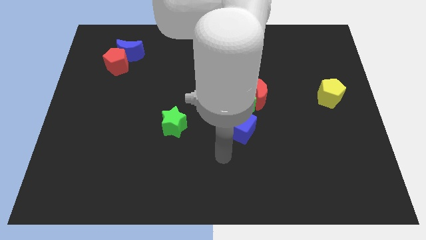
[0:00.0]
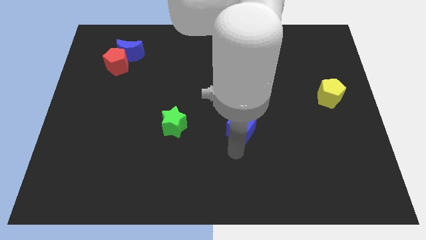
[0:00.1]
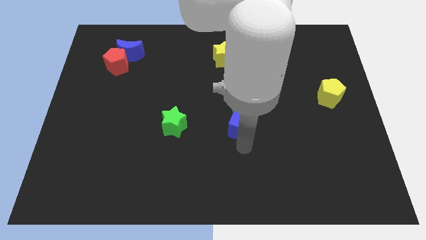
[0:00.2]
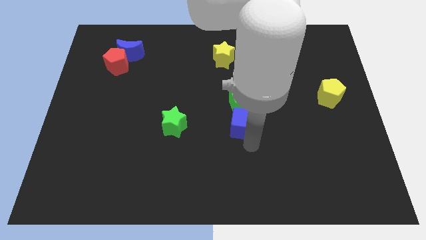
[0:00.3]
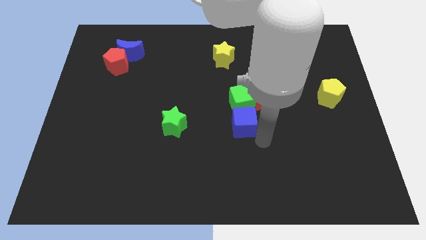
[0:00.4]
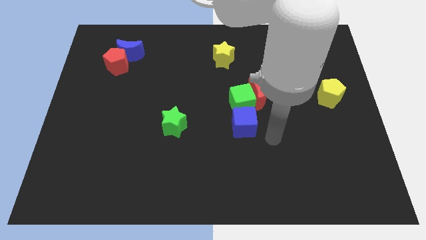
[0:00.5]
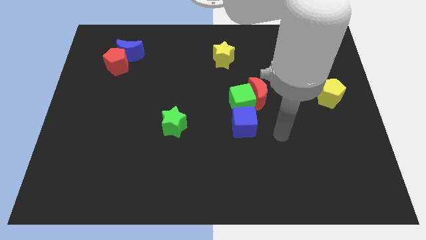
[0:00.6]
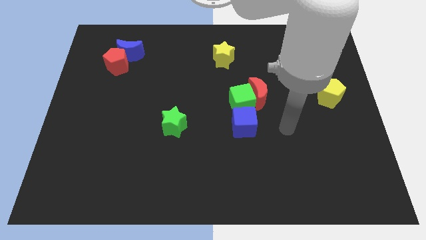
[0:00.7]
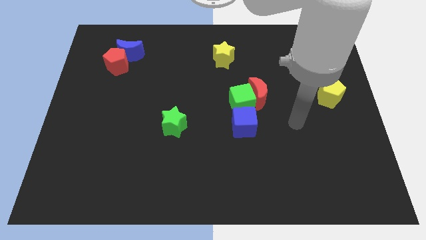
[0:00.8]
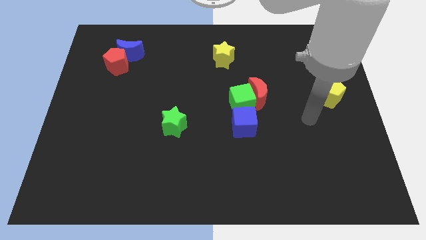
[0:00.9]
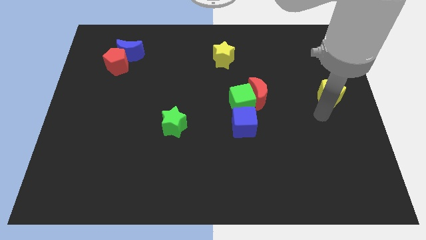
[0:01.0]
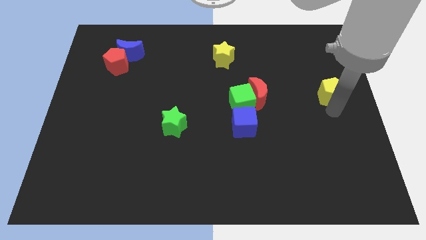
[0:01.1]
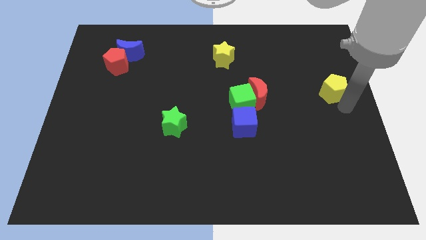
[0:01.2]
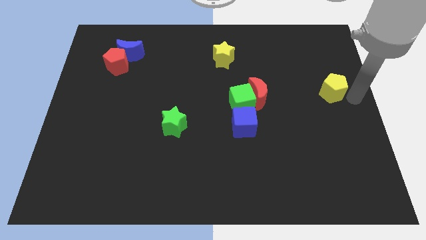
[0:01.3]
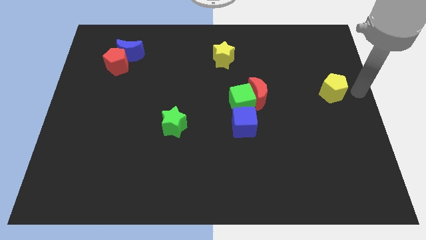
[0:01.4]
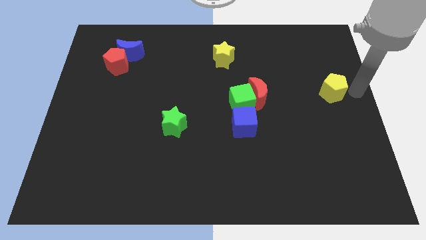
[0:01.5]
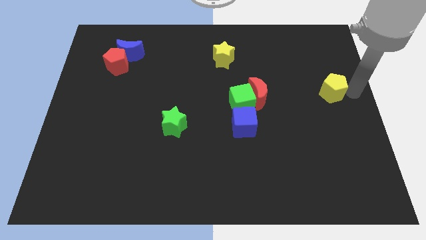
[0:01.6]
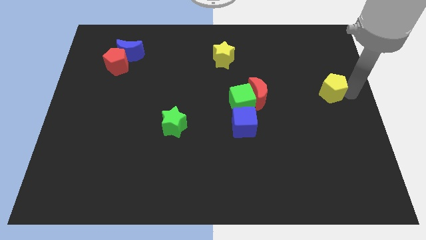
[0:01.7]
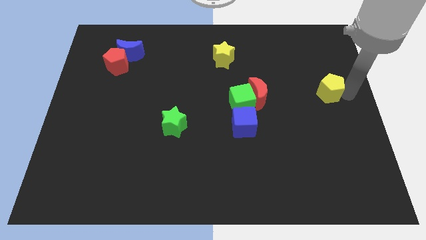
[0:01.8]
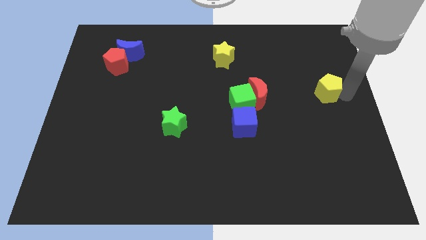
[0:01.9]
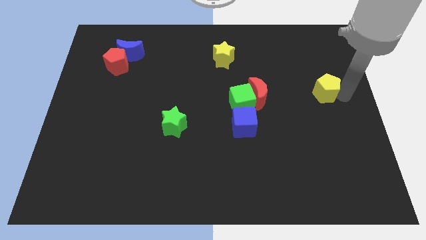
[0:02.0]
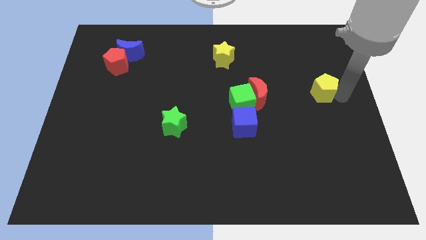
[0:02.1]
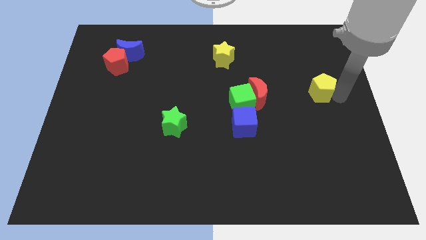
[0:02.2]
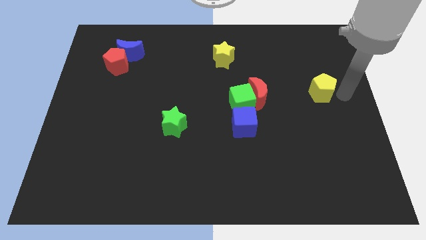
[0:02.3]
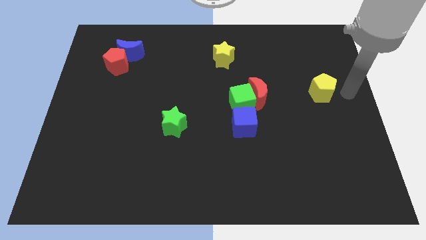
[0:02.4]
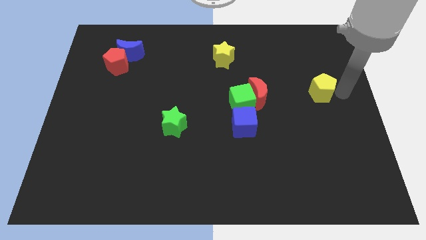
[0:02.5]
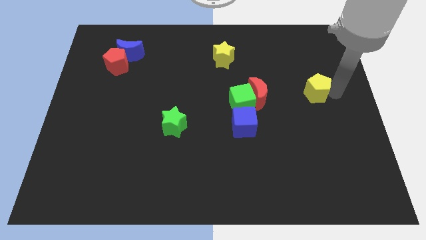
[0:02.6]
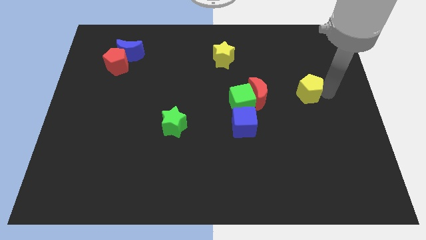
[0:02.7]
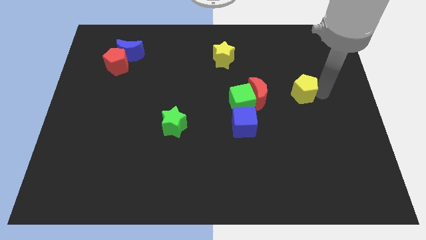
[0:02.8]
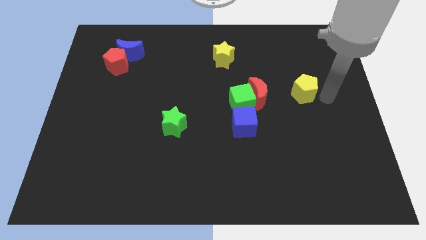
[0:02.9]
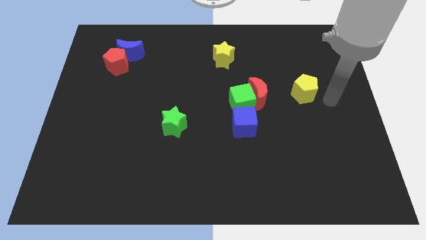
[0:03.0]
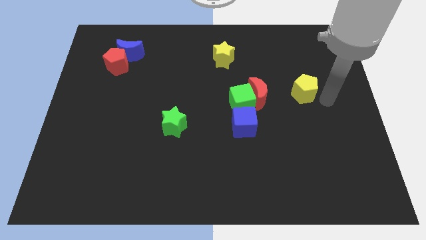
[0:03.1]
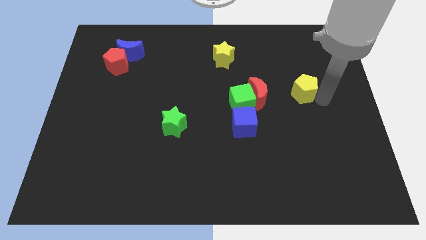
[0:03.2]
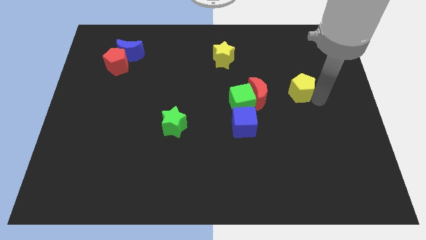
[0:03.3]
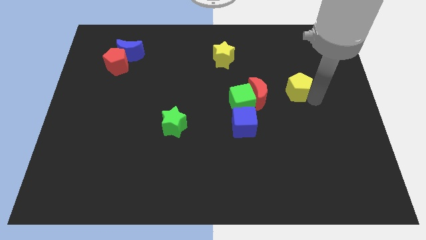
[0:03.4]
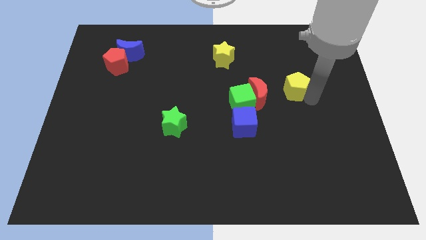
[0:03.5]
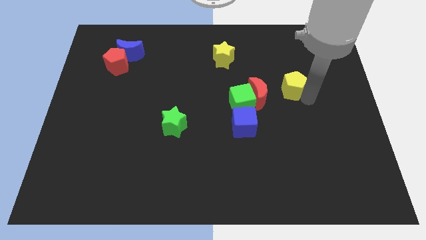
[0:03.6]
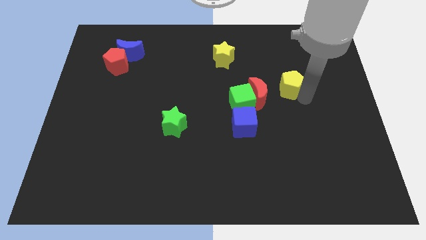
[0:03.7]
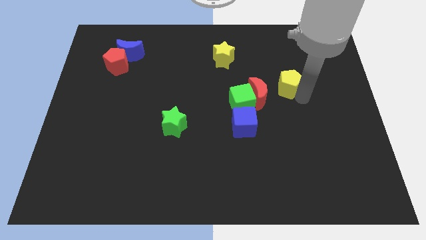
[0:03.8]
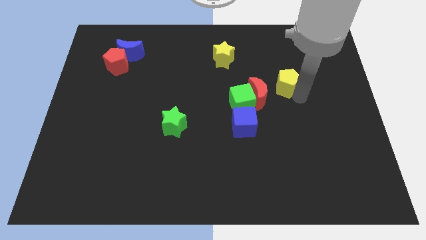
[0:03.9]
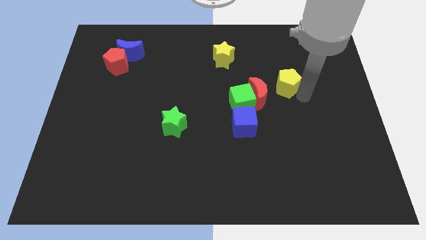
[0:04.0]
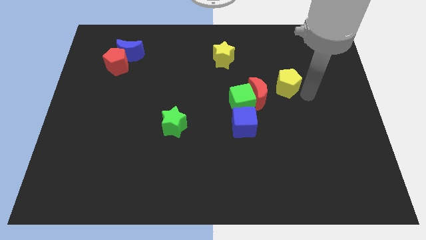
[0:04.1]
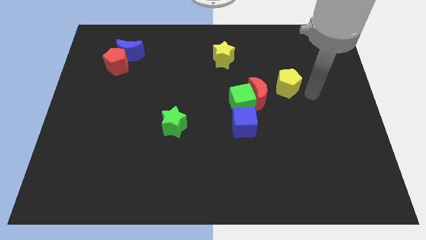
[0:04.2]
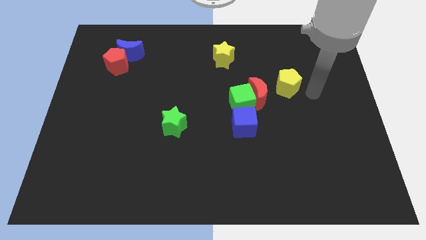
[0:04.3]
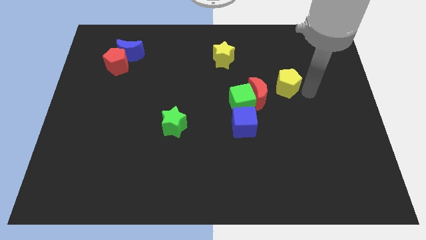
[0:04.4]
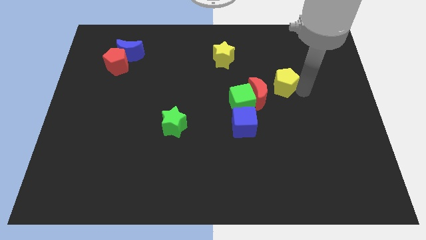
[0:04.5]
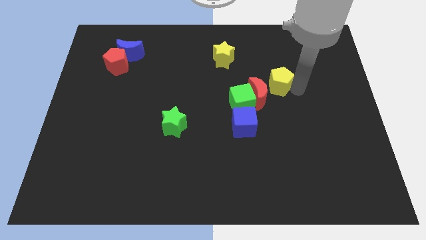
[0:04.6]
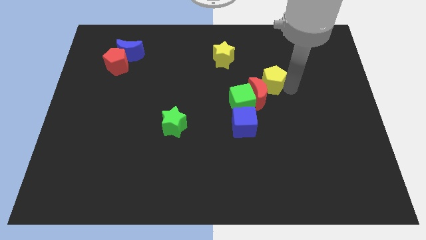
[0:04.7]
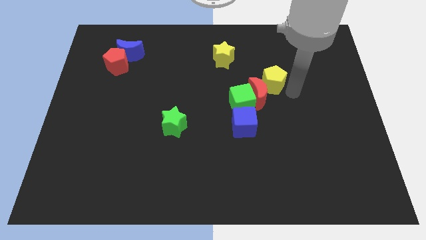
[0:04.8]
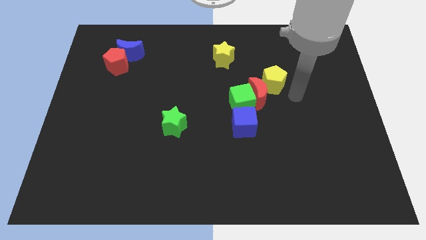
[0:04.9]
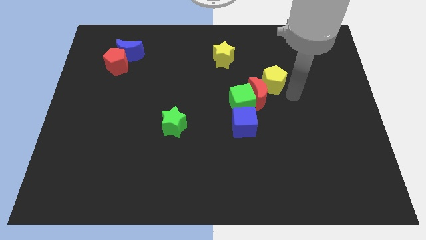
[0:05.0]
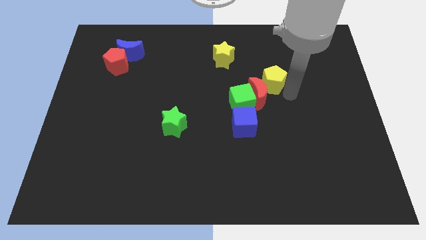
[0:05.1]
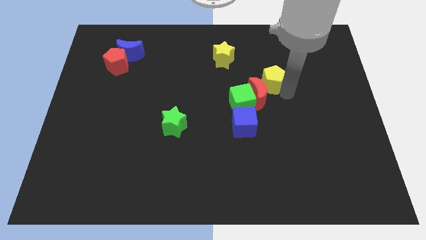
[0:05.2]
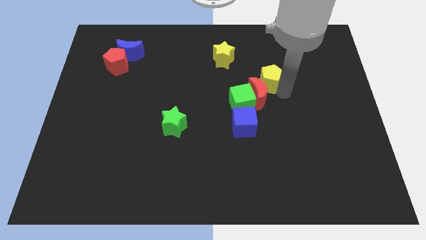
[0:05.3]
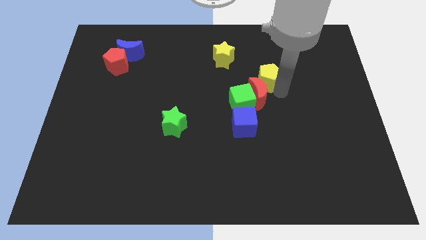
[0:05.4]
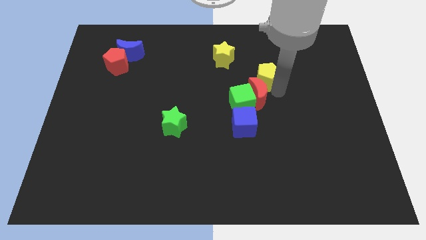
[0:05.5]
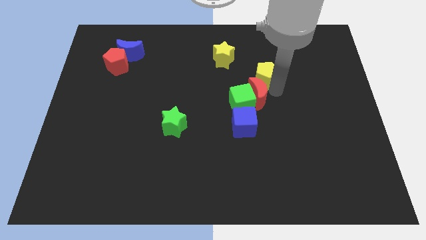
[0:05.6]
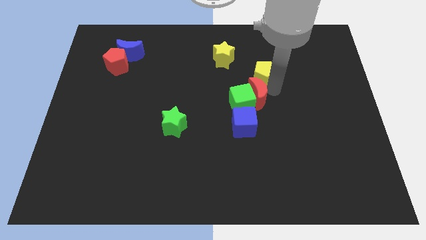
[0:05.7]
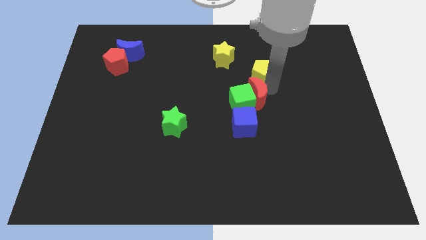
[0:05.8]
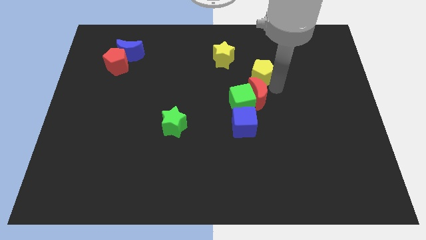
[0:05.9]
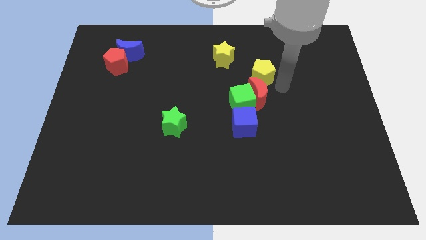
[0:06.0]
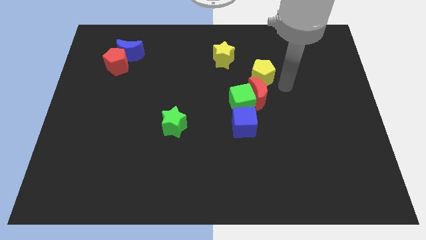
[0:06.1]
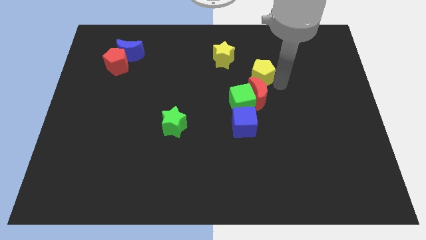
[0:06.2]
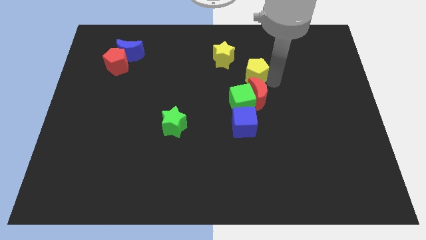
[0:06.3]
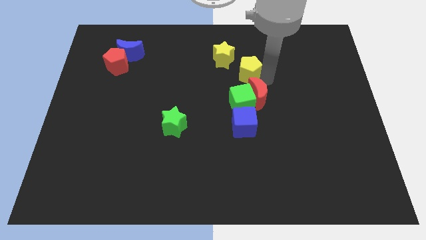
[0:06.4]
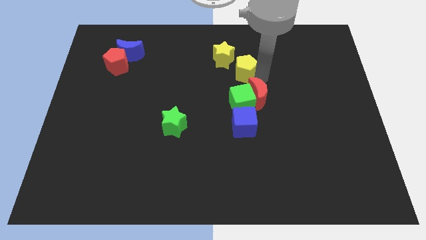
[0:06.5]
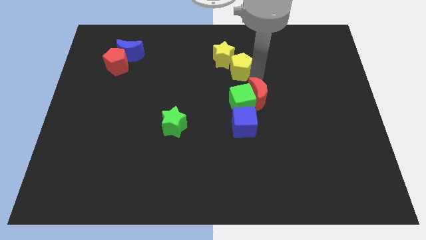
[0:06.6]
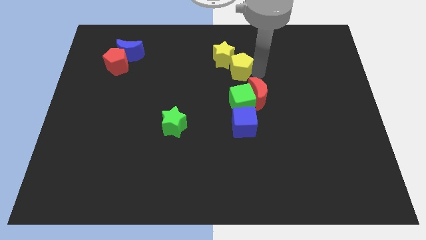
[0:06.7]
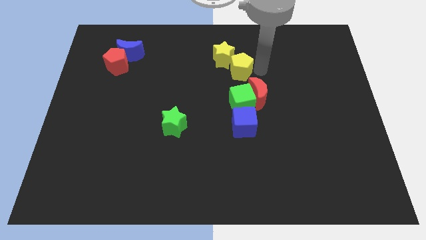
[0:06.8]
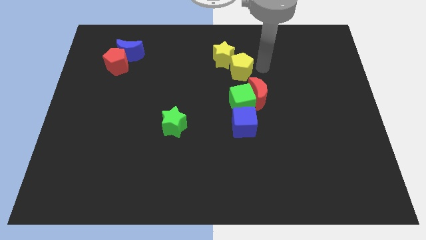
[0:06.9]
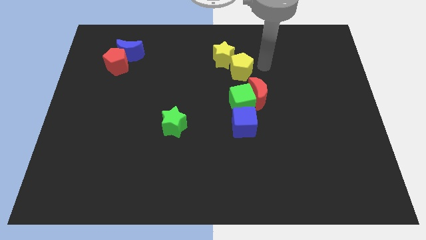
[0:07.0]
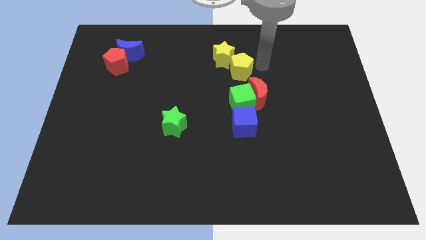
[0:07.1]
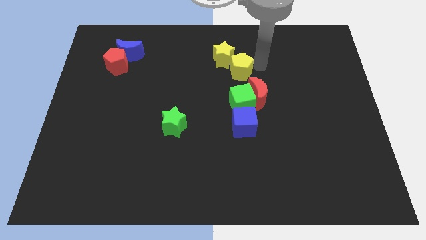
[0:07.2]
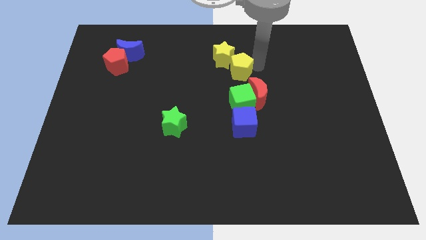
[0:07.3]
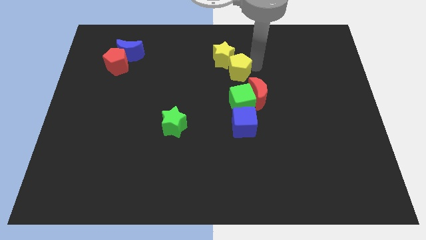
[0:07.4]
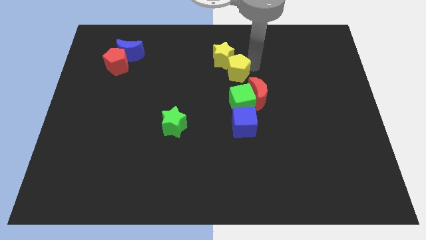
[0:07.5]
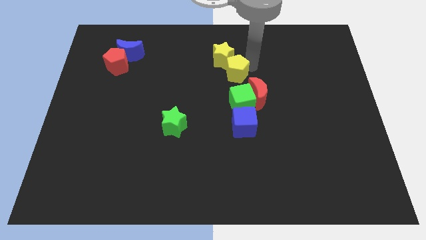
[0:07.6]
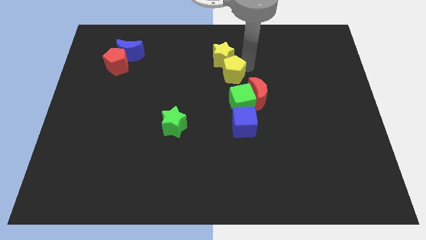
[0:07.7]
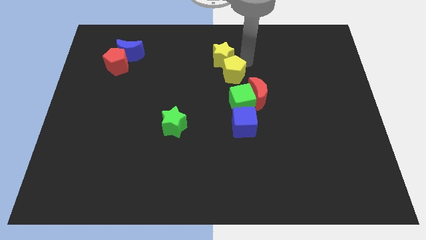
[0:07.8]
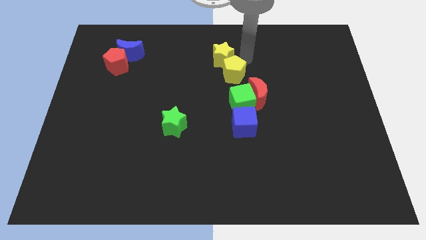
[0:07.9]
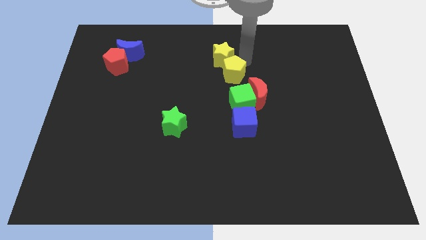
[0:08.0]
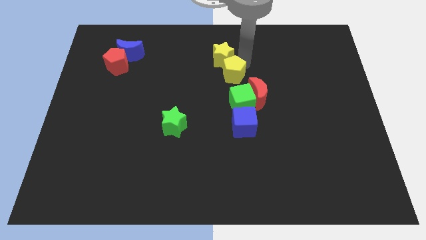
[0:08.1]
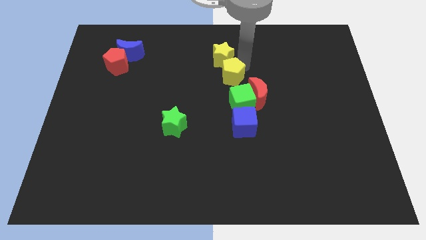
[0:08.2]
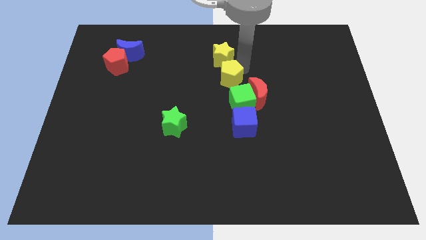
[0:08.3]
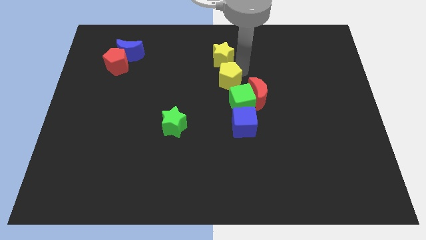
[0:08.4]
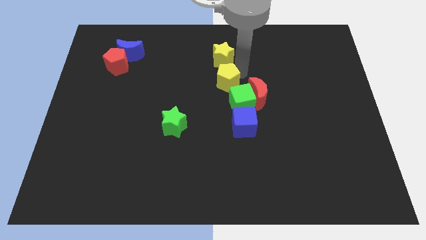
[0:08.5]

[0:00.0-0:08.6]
slide the yellow pentagon just left of the red moon
